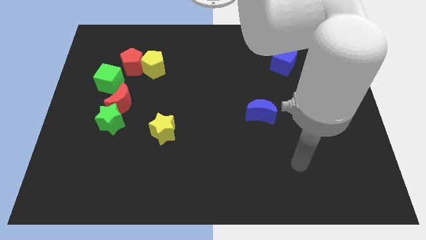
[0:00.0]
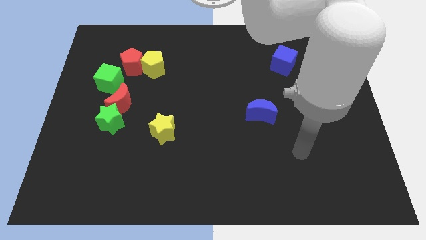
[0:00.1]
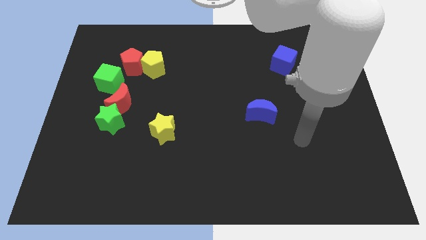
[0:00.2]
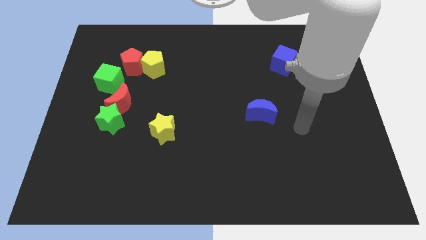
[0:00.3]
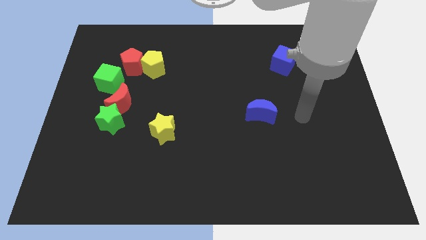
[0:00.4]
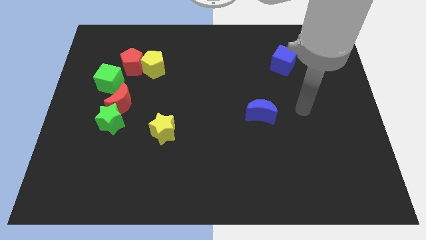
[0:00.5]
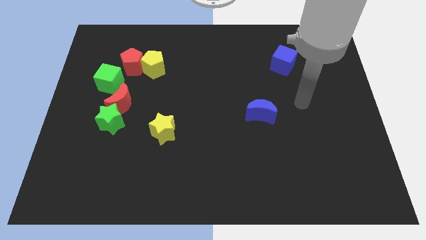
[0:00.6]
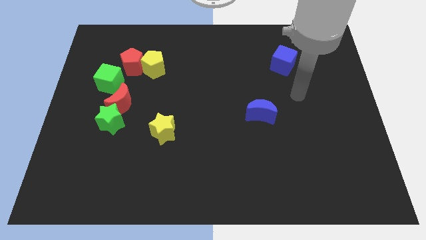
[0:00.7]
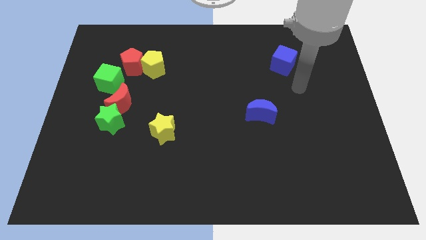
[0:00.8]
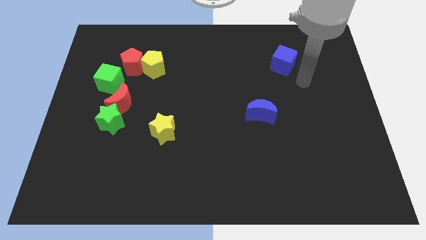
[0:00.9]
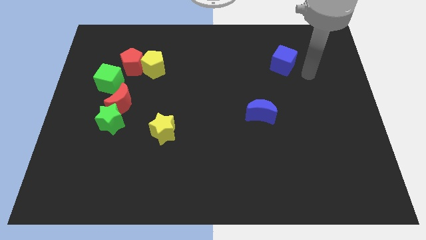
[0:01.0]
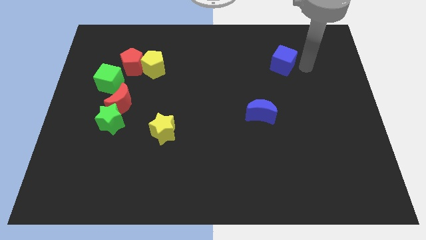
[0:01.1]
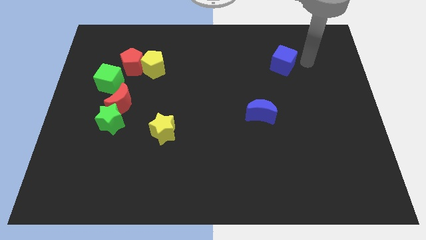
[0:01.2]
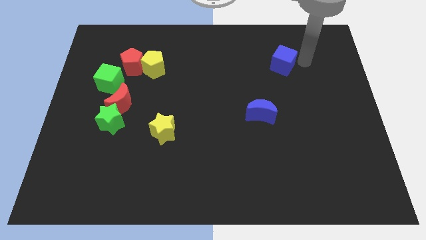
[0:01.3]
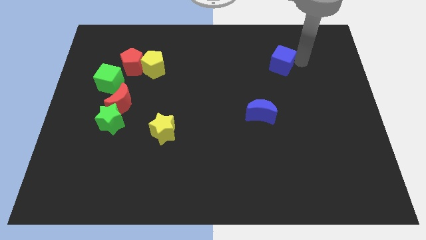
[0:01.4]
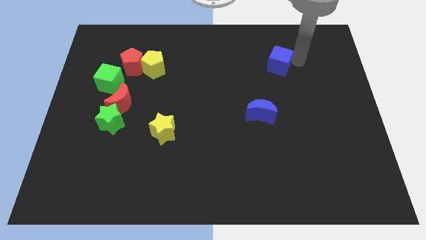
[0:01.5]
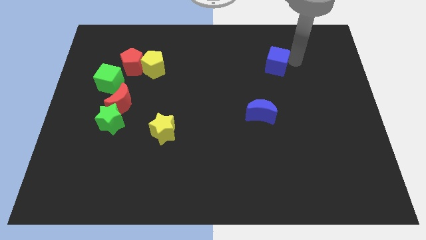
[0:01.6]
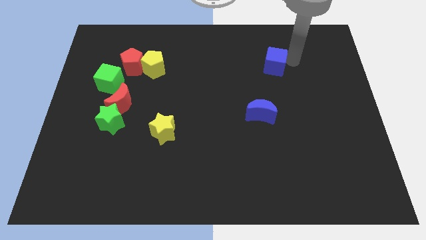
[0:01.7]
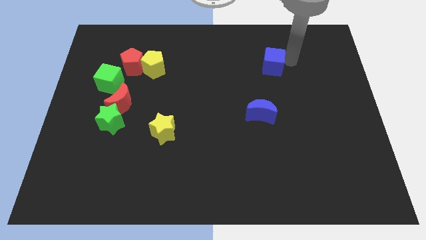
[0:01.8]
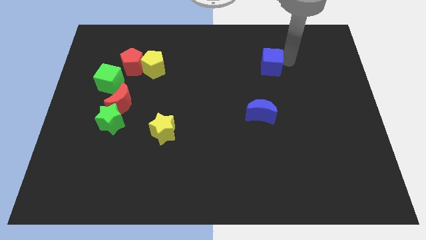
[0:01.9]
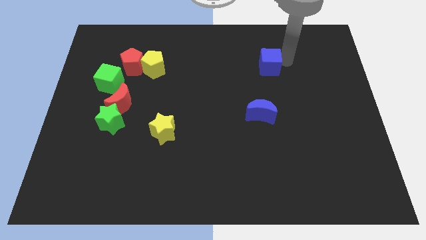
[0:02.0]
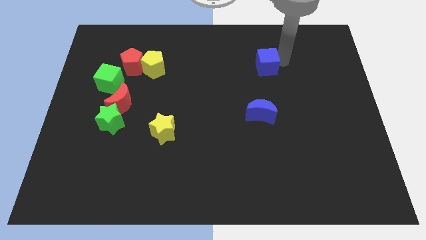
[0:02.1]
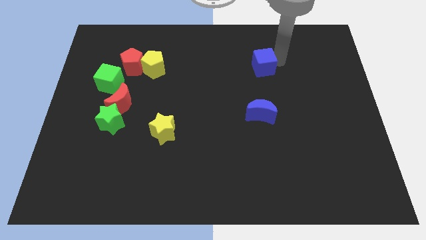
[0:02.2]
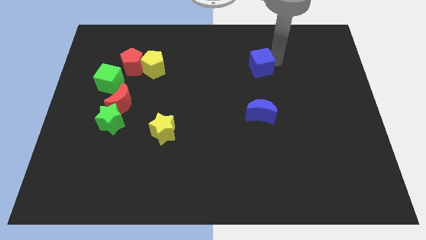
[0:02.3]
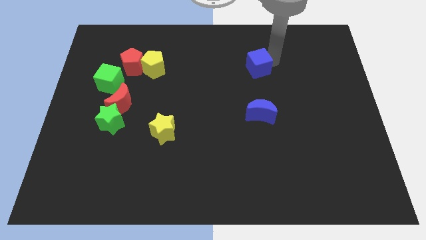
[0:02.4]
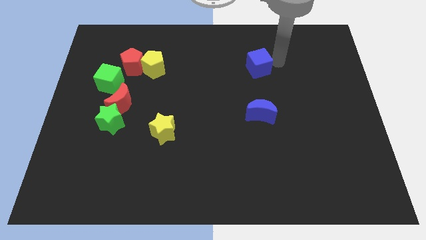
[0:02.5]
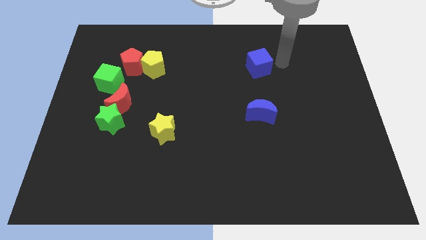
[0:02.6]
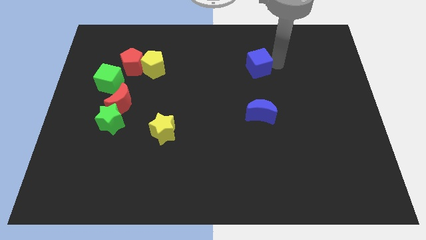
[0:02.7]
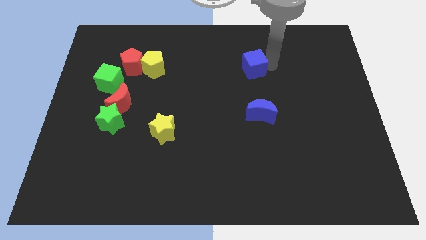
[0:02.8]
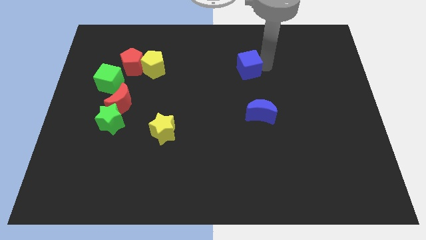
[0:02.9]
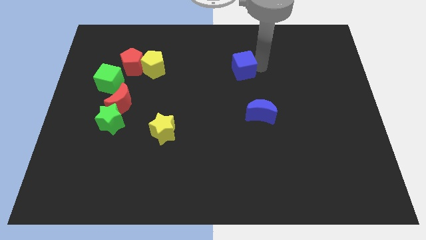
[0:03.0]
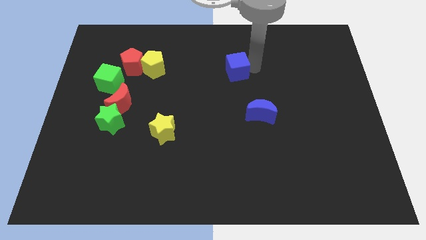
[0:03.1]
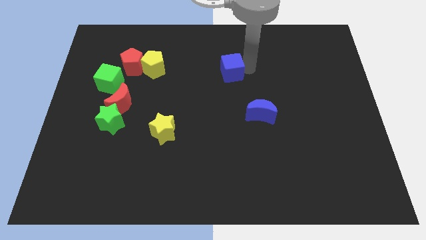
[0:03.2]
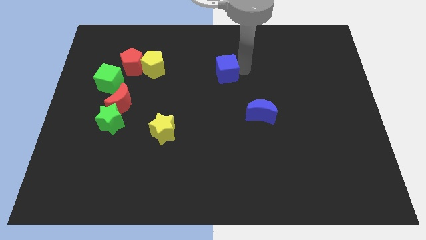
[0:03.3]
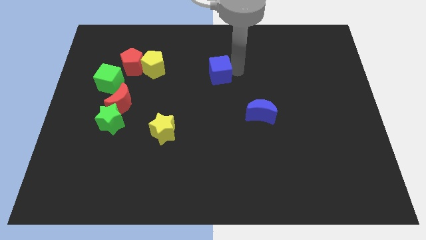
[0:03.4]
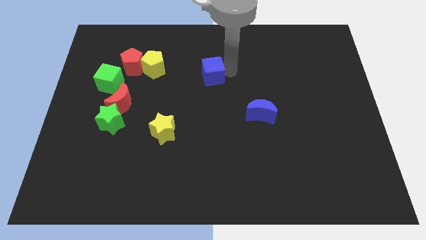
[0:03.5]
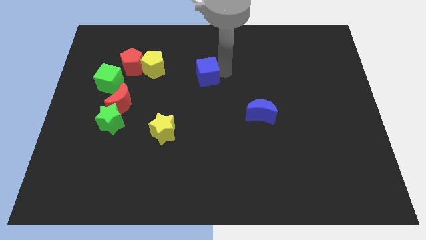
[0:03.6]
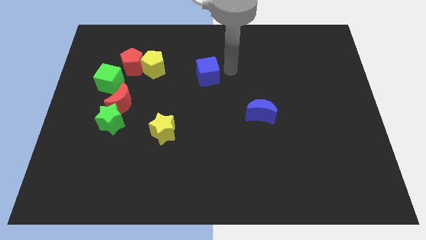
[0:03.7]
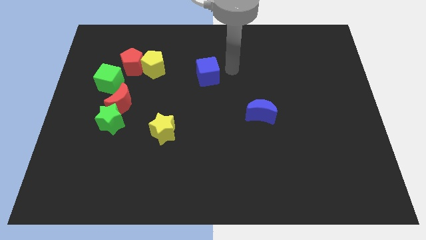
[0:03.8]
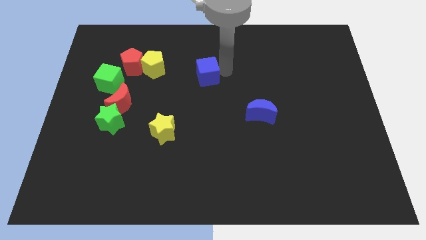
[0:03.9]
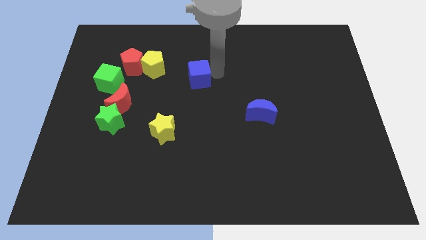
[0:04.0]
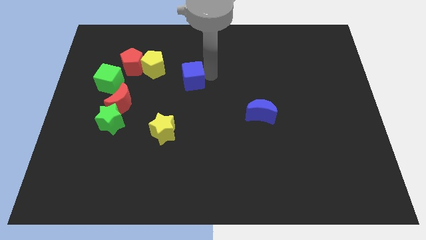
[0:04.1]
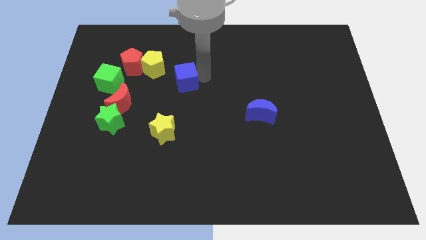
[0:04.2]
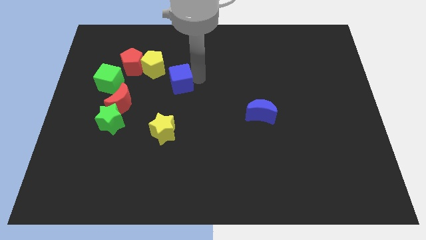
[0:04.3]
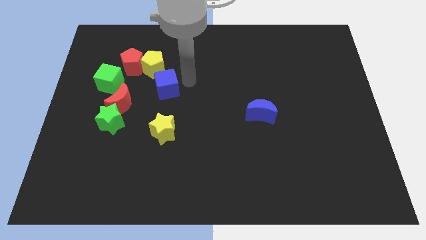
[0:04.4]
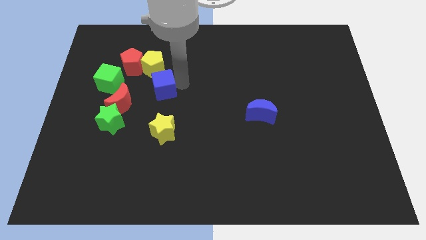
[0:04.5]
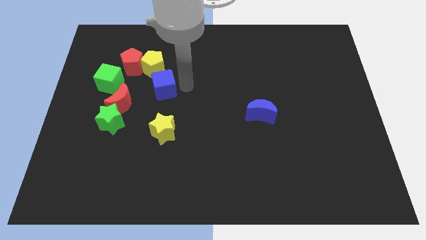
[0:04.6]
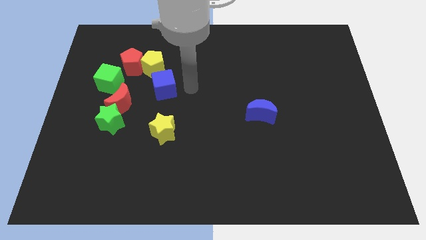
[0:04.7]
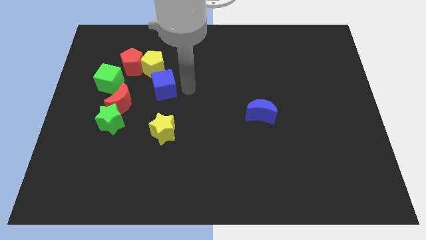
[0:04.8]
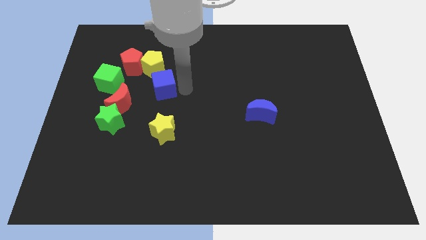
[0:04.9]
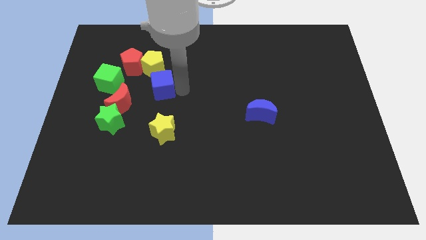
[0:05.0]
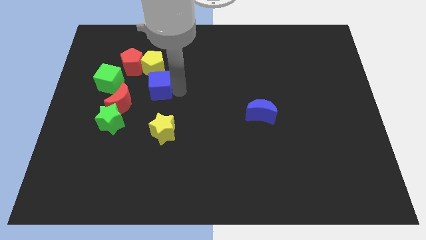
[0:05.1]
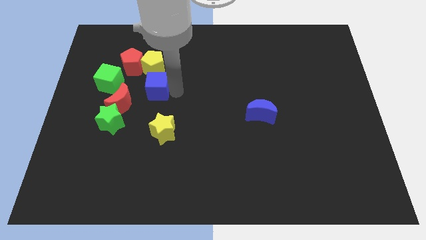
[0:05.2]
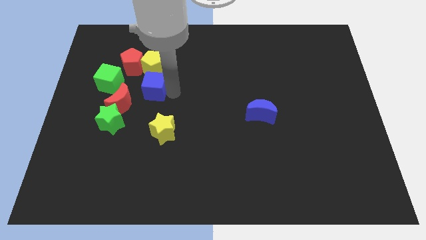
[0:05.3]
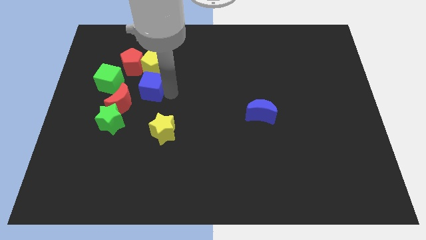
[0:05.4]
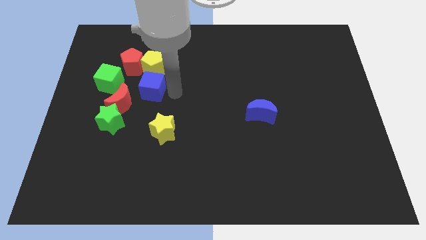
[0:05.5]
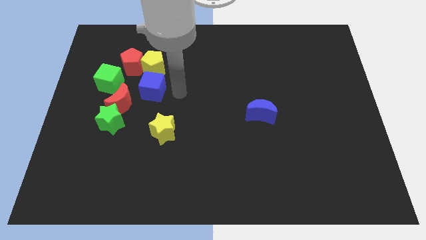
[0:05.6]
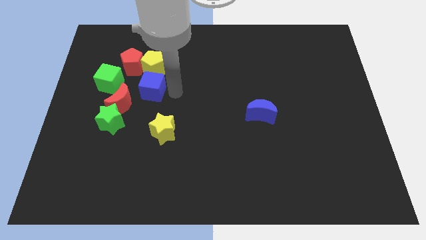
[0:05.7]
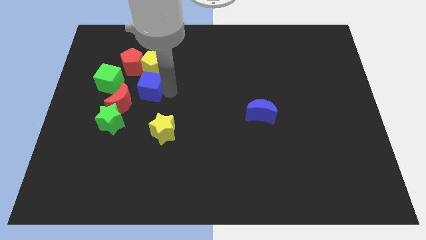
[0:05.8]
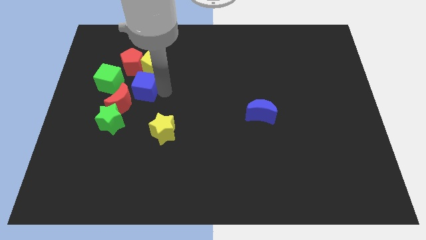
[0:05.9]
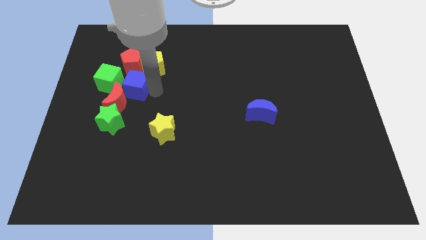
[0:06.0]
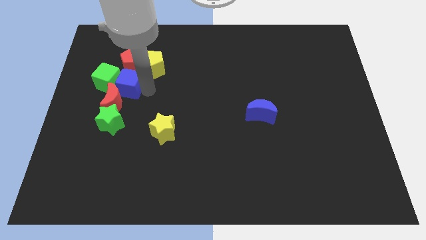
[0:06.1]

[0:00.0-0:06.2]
slide the blue cube to the green cube

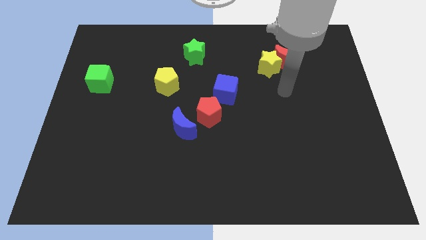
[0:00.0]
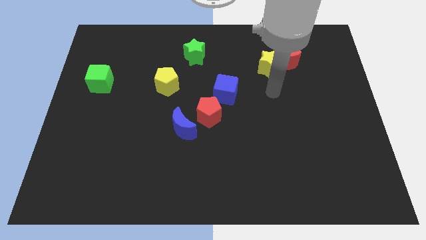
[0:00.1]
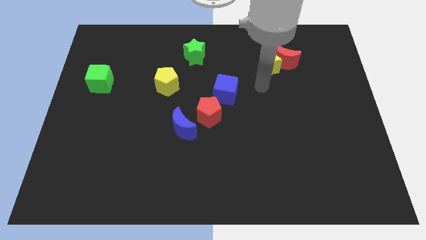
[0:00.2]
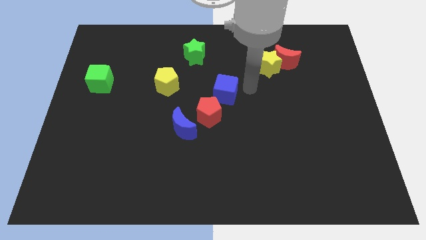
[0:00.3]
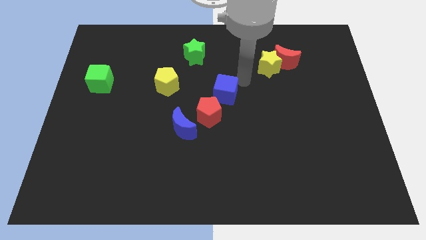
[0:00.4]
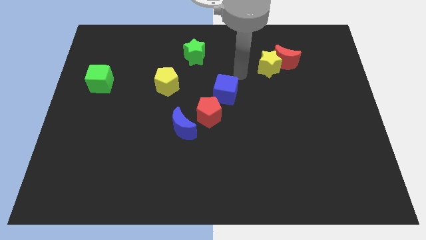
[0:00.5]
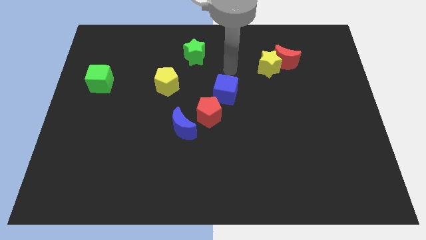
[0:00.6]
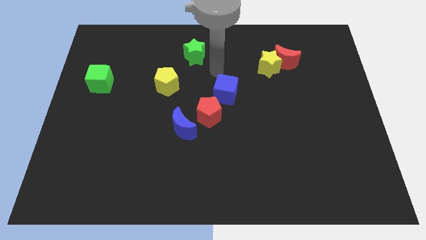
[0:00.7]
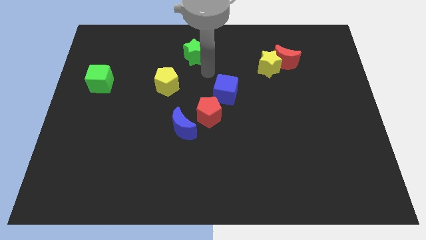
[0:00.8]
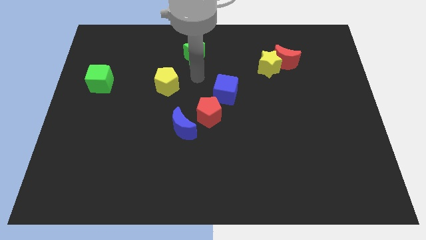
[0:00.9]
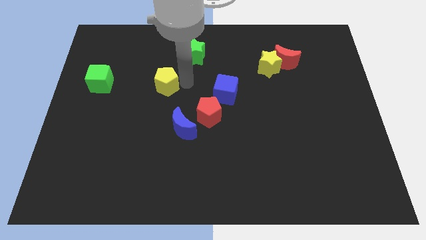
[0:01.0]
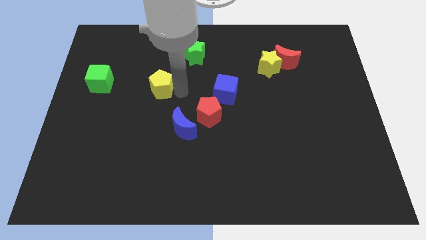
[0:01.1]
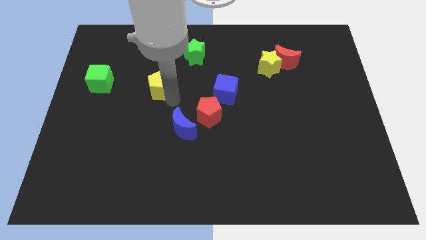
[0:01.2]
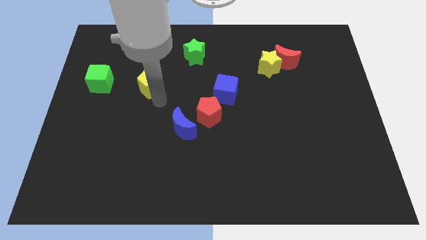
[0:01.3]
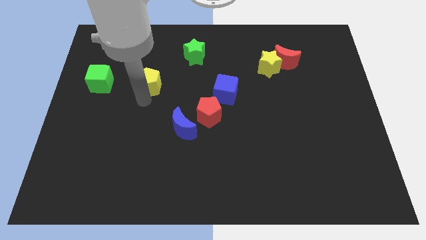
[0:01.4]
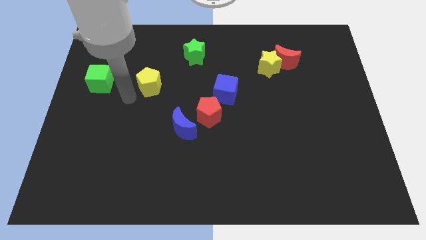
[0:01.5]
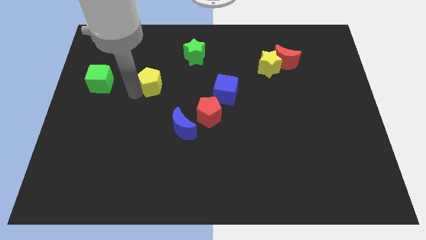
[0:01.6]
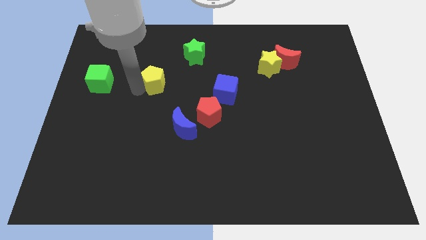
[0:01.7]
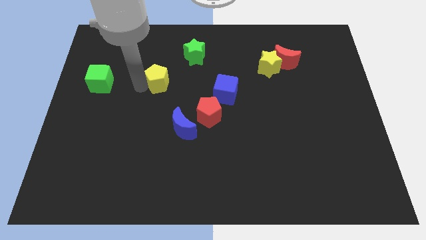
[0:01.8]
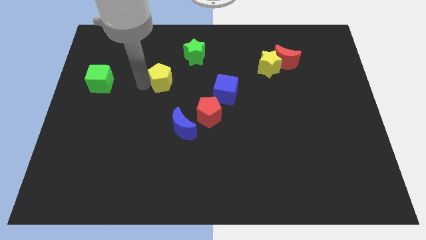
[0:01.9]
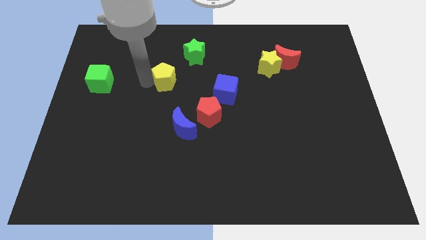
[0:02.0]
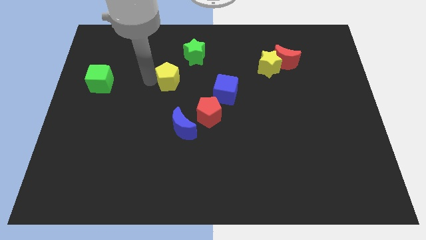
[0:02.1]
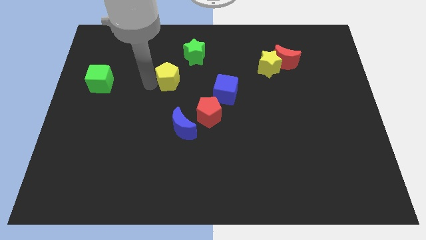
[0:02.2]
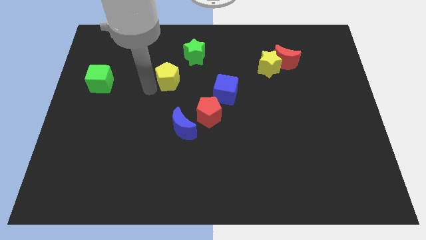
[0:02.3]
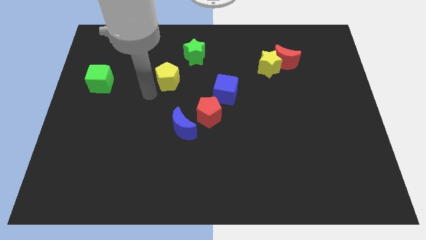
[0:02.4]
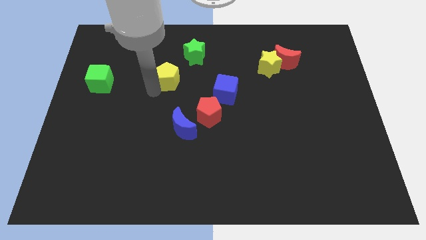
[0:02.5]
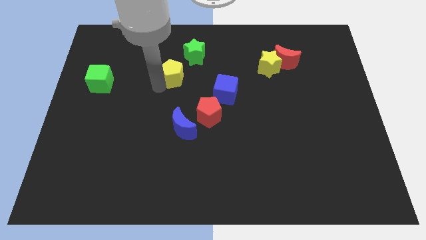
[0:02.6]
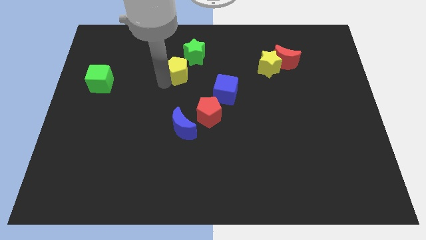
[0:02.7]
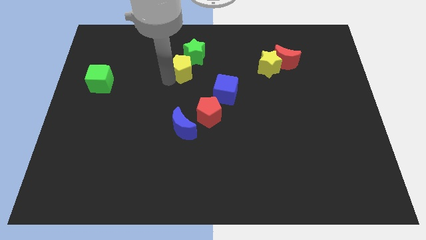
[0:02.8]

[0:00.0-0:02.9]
move the yellow pentagon close to the green star
